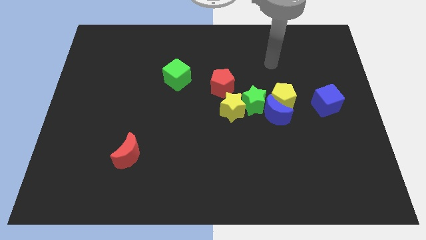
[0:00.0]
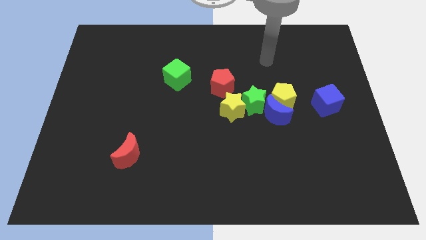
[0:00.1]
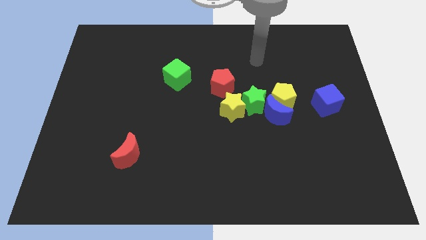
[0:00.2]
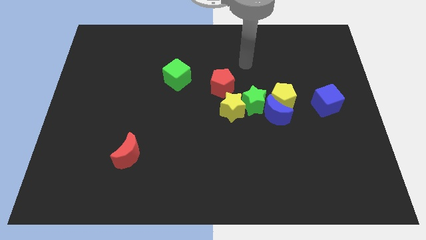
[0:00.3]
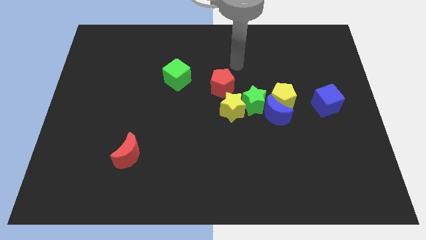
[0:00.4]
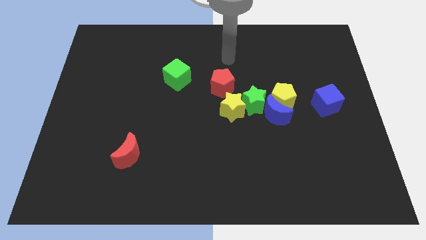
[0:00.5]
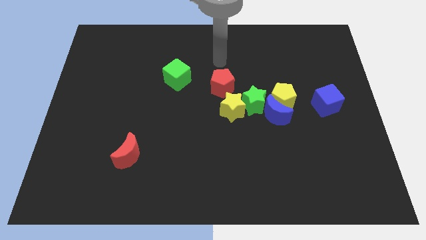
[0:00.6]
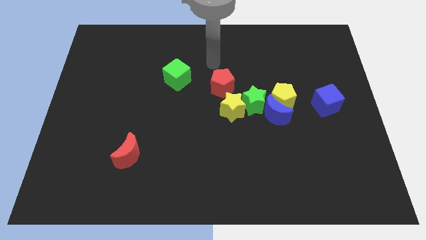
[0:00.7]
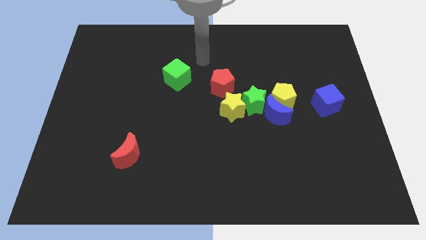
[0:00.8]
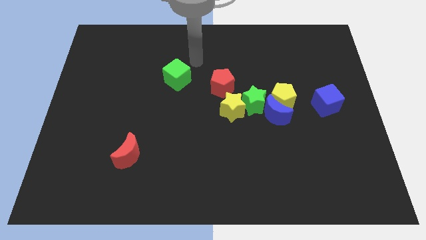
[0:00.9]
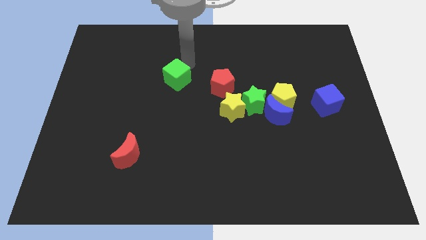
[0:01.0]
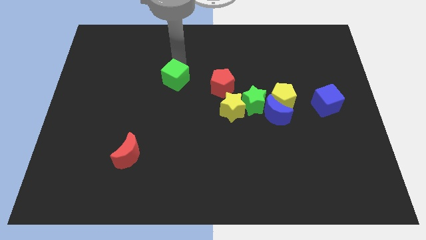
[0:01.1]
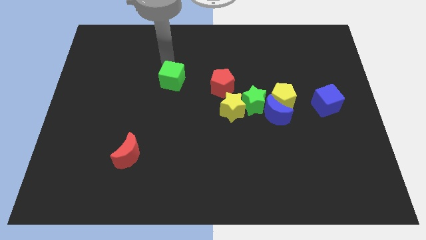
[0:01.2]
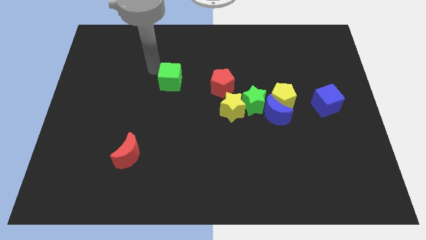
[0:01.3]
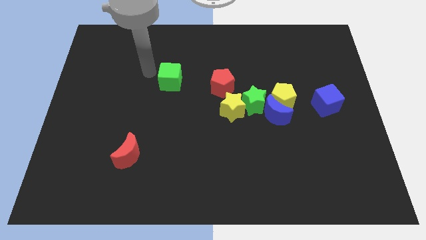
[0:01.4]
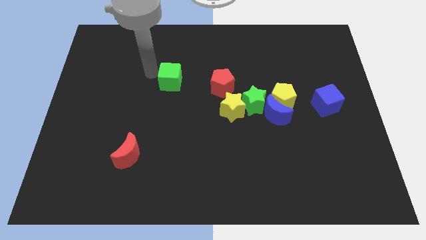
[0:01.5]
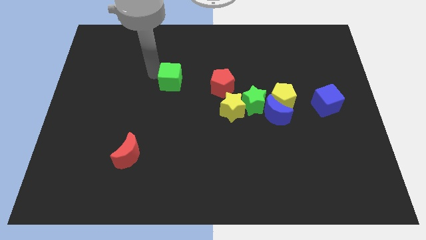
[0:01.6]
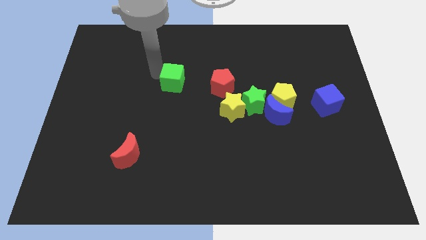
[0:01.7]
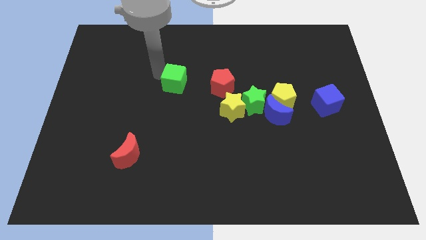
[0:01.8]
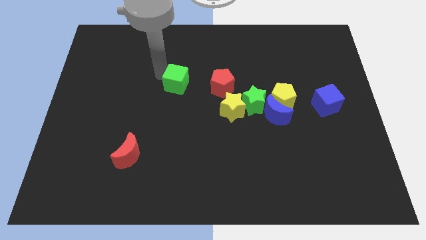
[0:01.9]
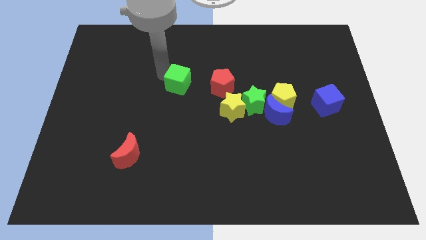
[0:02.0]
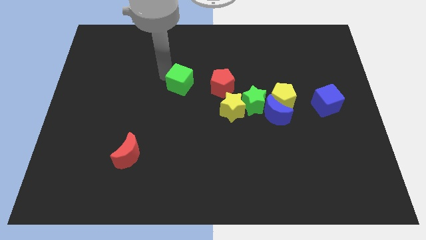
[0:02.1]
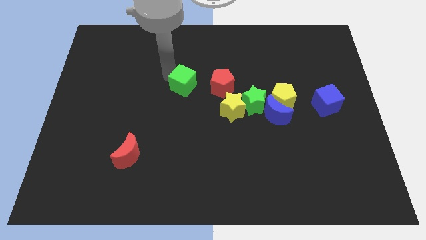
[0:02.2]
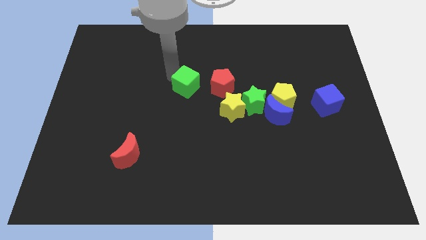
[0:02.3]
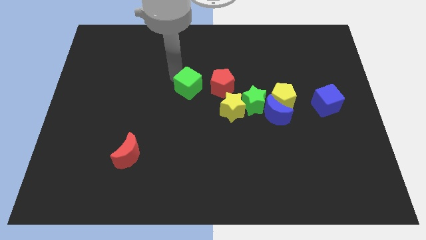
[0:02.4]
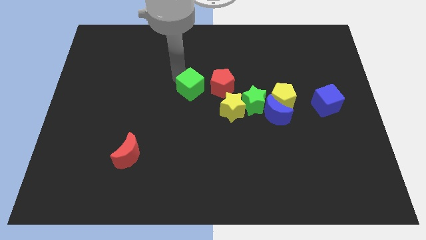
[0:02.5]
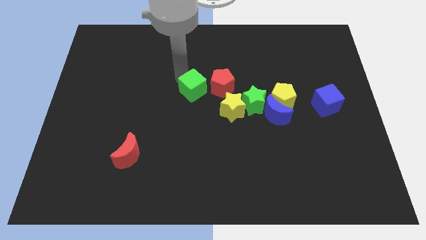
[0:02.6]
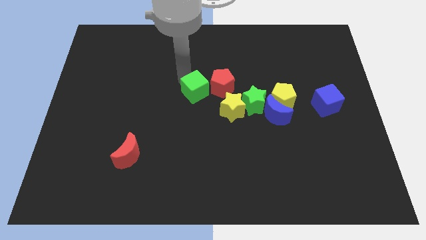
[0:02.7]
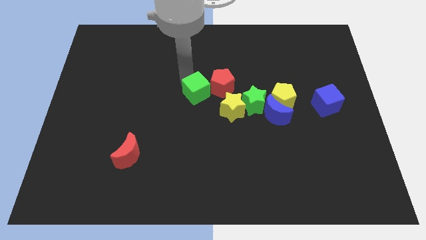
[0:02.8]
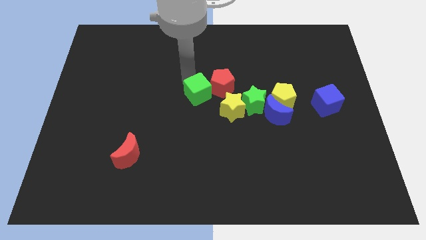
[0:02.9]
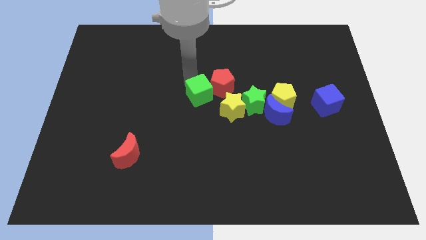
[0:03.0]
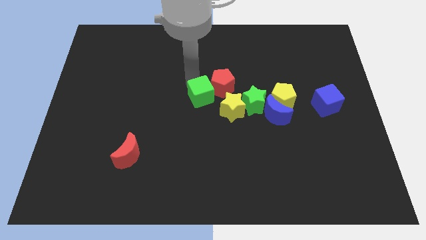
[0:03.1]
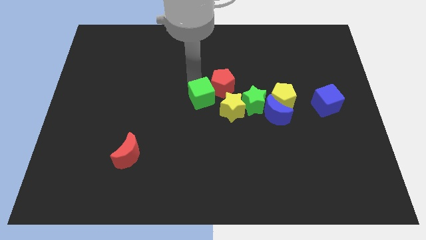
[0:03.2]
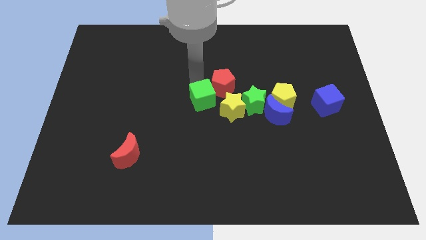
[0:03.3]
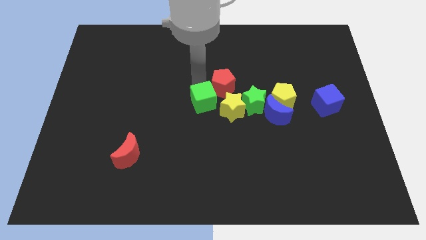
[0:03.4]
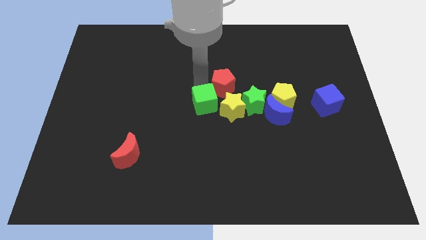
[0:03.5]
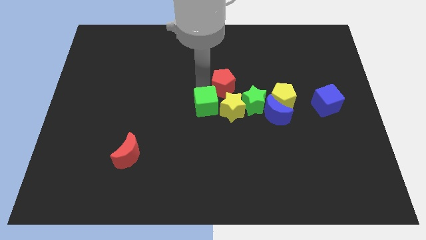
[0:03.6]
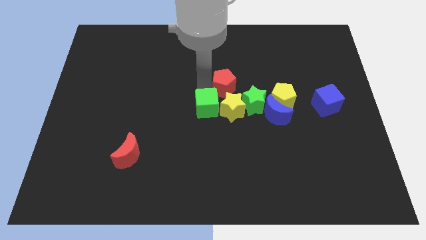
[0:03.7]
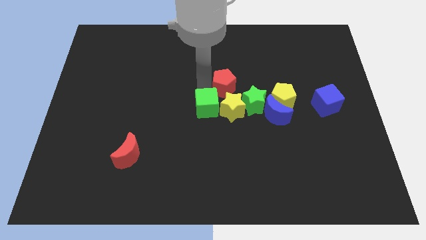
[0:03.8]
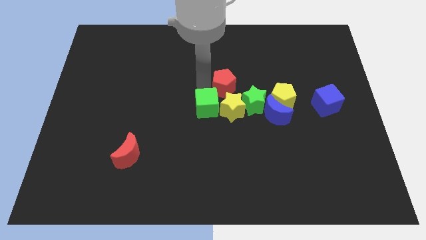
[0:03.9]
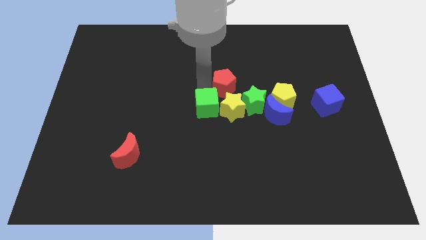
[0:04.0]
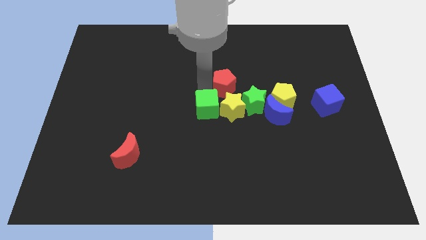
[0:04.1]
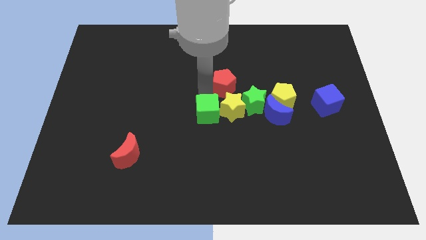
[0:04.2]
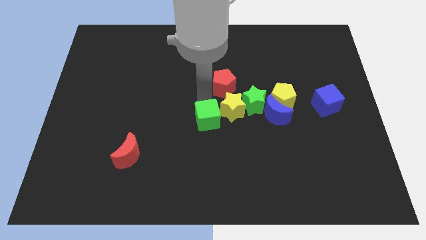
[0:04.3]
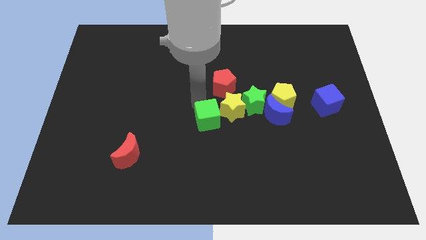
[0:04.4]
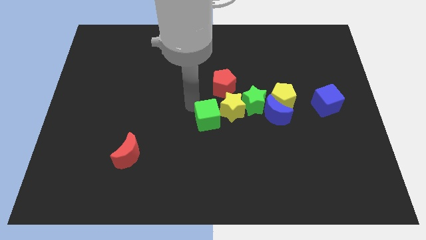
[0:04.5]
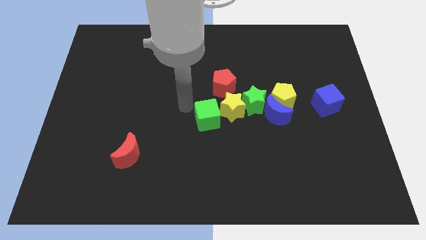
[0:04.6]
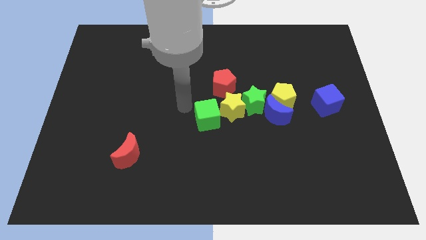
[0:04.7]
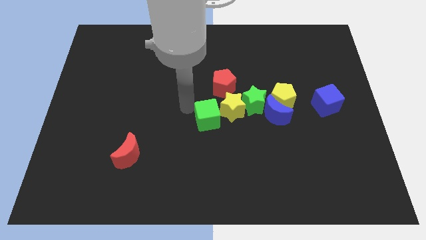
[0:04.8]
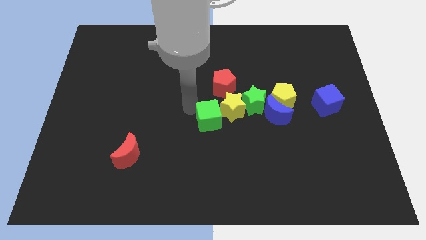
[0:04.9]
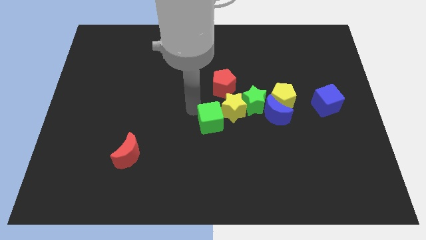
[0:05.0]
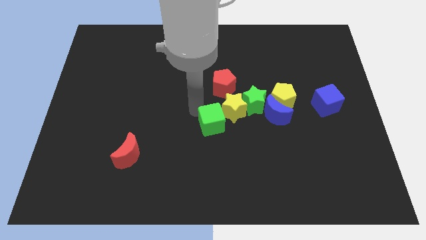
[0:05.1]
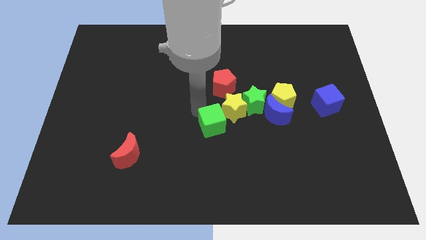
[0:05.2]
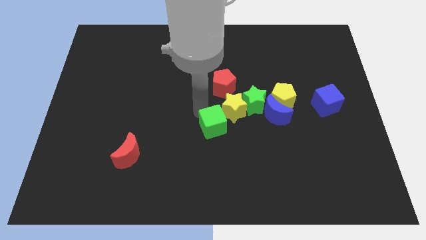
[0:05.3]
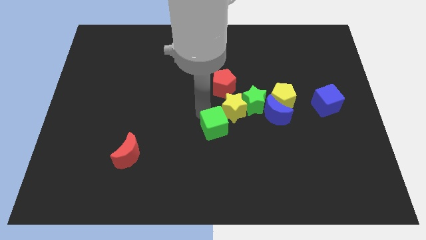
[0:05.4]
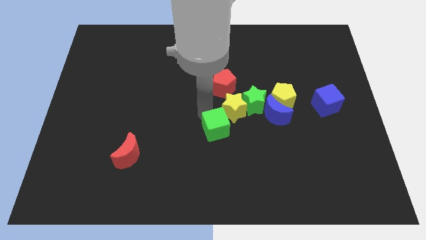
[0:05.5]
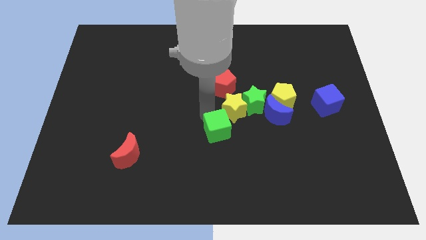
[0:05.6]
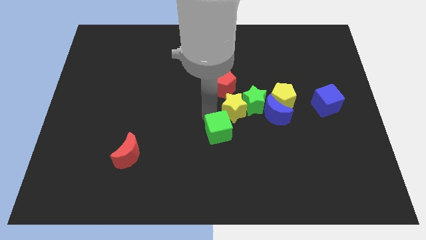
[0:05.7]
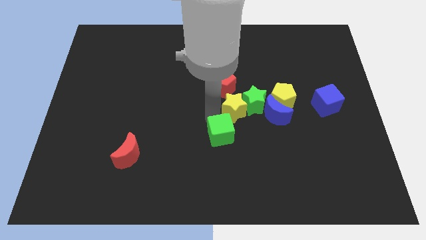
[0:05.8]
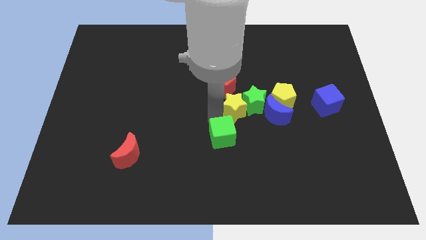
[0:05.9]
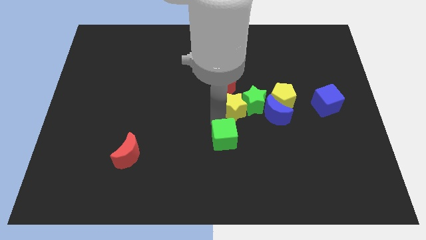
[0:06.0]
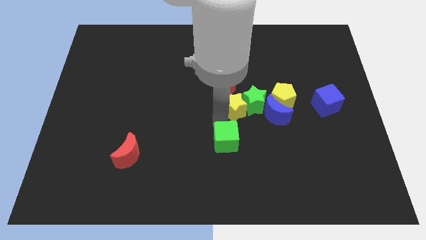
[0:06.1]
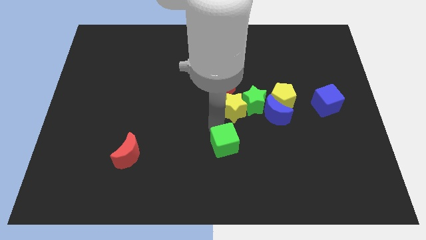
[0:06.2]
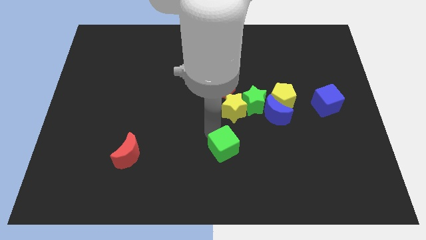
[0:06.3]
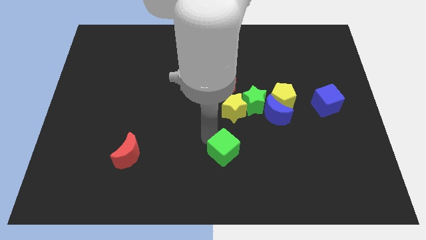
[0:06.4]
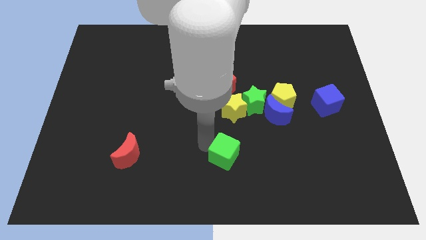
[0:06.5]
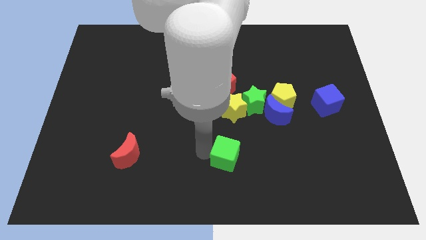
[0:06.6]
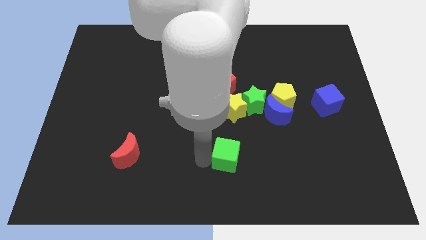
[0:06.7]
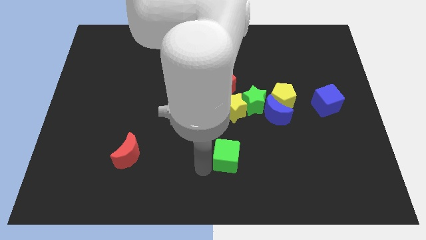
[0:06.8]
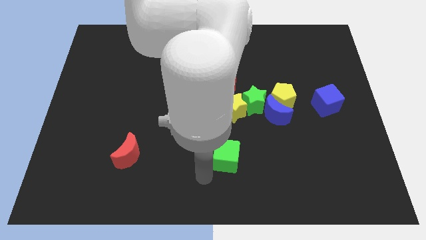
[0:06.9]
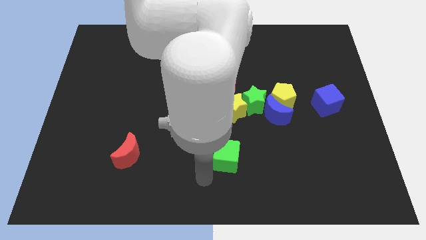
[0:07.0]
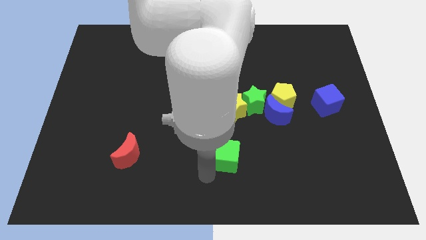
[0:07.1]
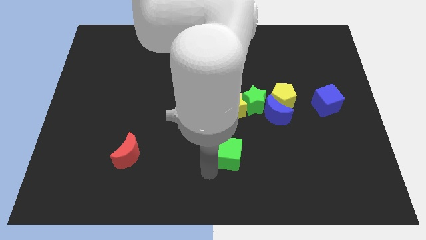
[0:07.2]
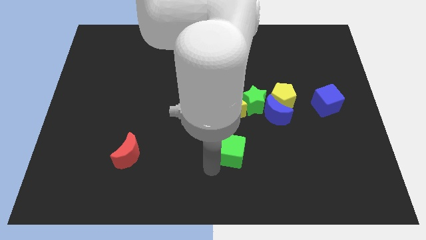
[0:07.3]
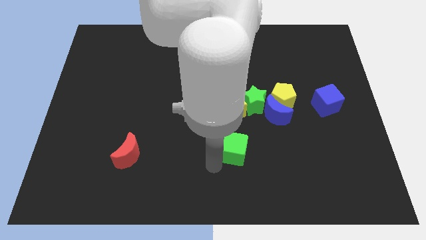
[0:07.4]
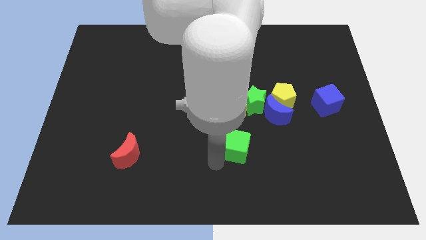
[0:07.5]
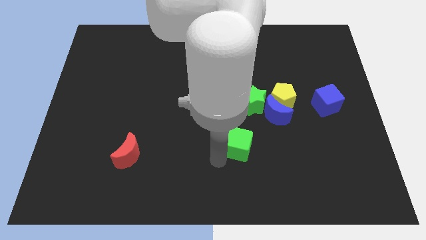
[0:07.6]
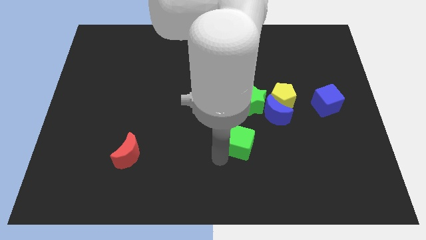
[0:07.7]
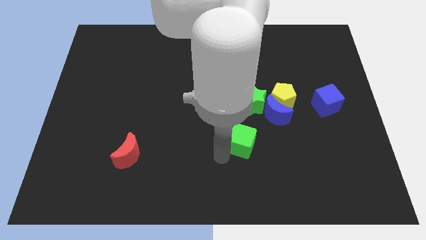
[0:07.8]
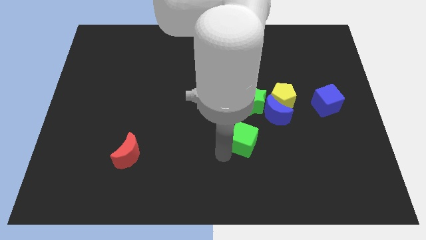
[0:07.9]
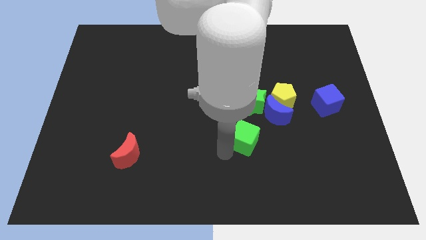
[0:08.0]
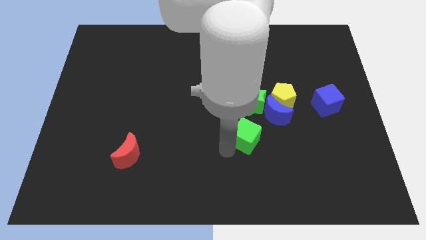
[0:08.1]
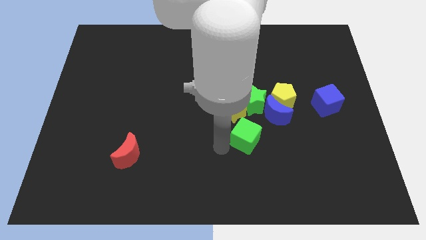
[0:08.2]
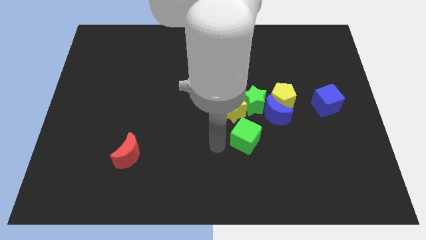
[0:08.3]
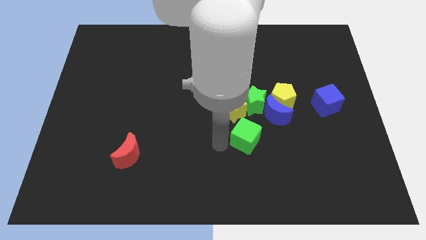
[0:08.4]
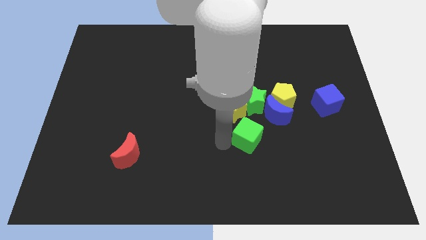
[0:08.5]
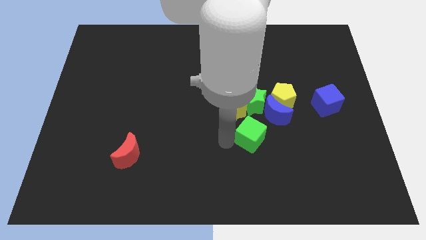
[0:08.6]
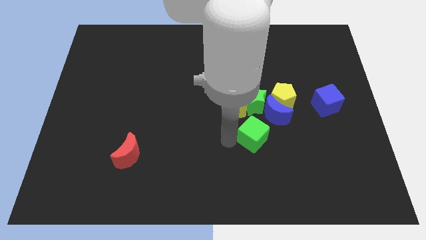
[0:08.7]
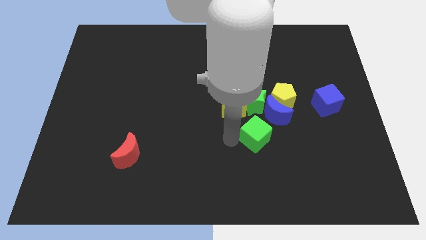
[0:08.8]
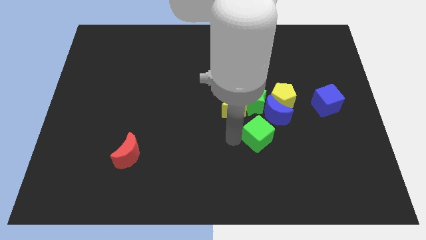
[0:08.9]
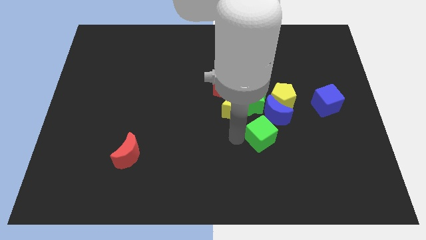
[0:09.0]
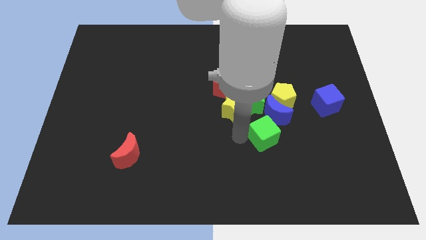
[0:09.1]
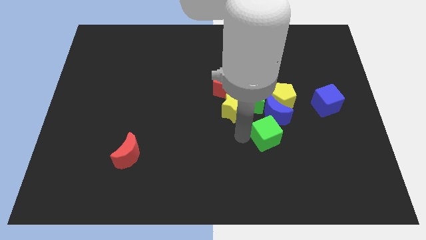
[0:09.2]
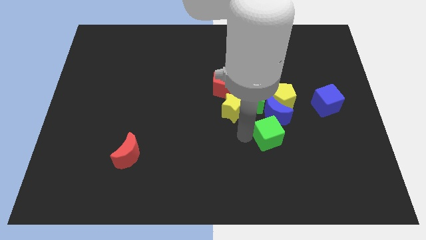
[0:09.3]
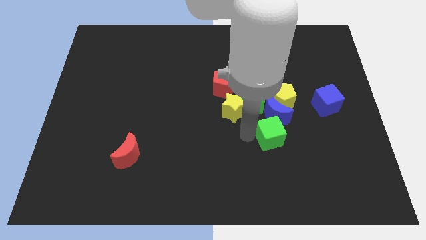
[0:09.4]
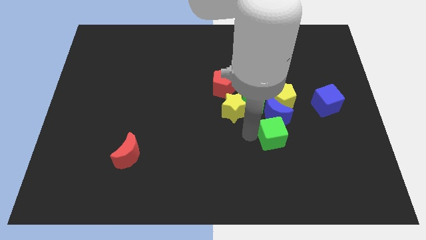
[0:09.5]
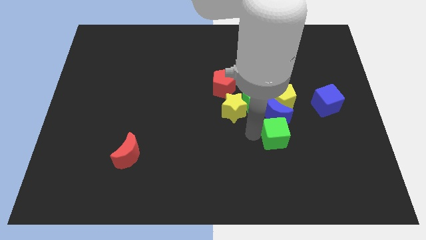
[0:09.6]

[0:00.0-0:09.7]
move the green cube to the bottom right side of the blue moon
